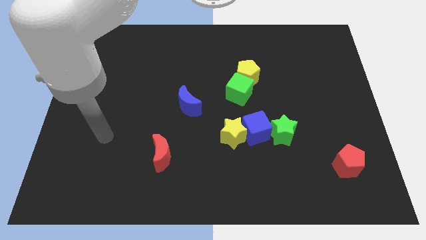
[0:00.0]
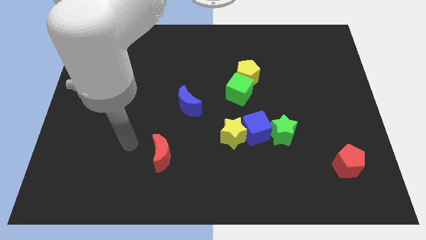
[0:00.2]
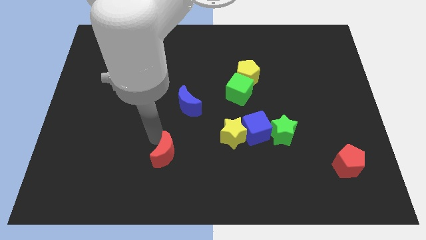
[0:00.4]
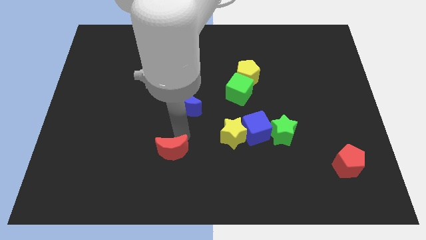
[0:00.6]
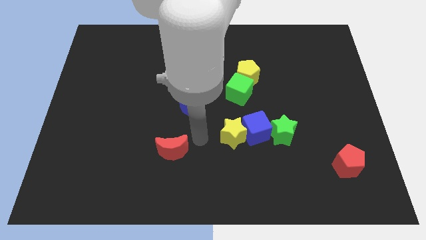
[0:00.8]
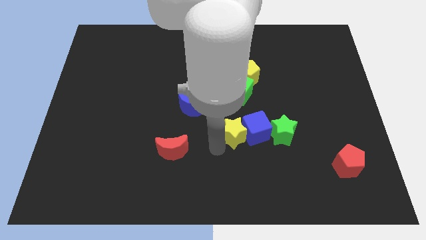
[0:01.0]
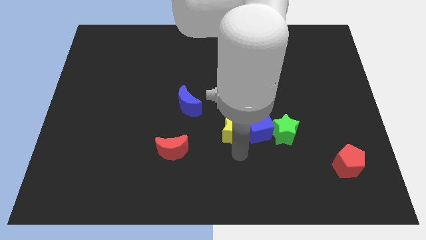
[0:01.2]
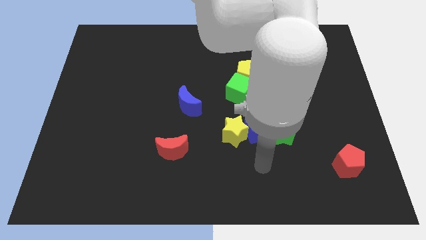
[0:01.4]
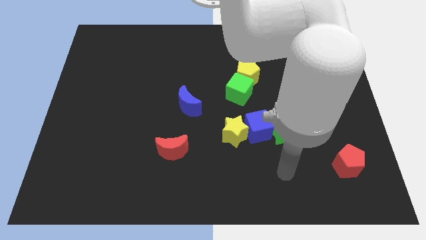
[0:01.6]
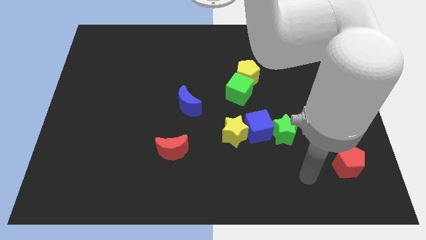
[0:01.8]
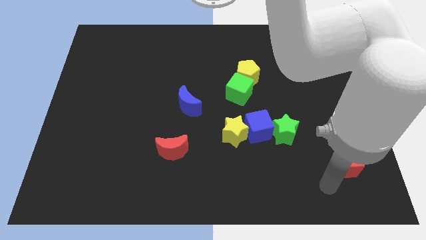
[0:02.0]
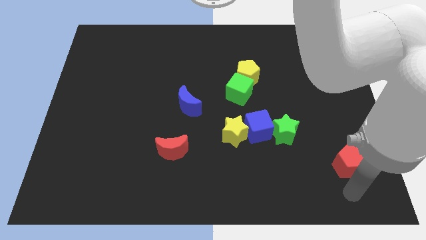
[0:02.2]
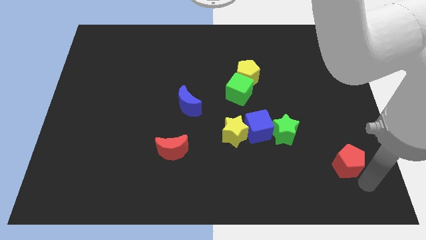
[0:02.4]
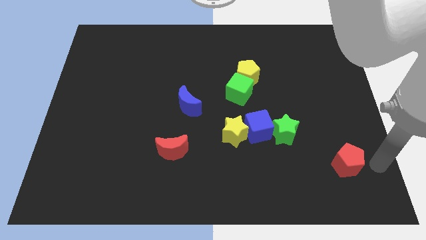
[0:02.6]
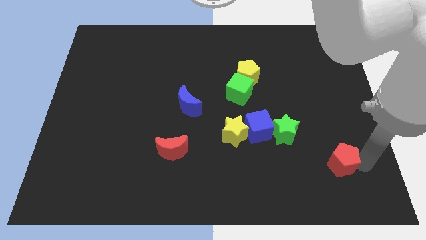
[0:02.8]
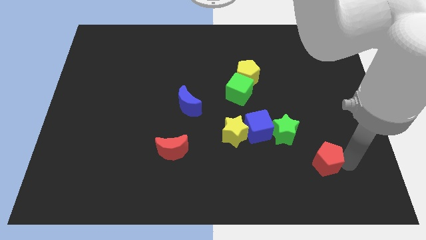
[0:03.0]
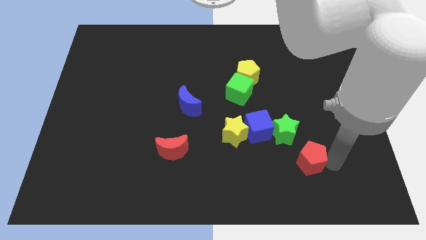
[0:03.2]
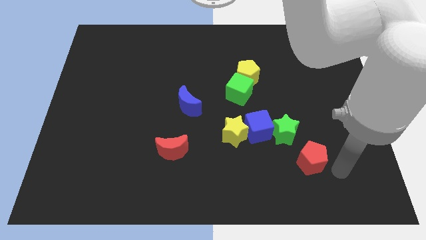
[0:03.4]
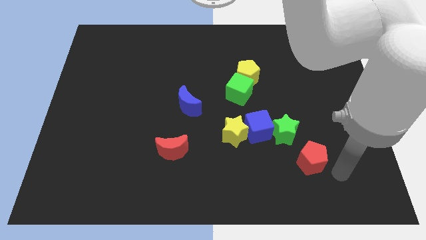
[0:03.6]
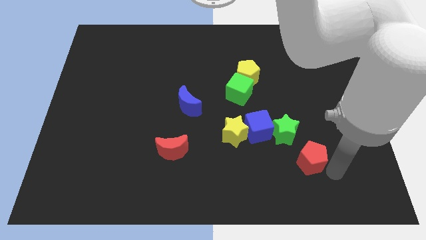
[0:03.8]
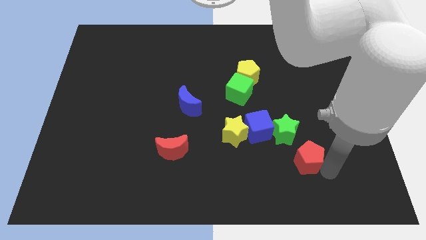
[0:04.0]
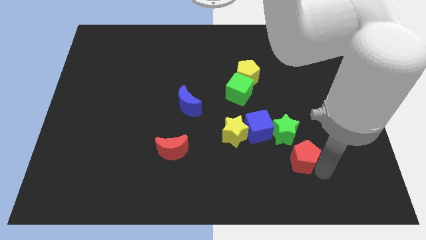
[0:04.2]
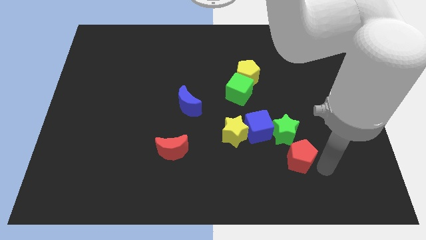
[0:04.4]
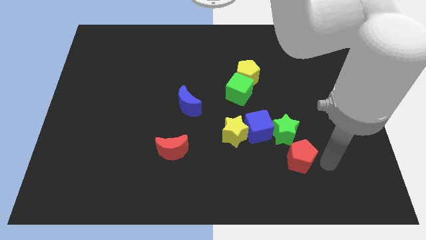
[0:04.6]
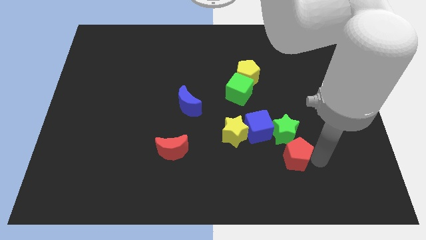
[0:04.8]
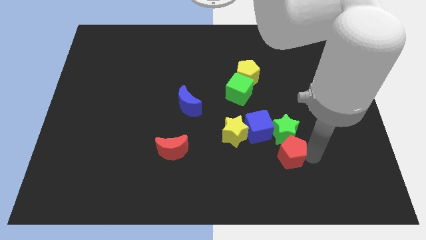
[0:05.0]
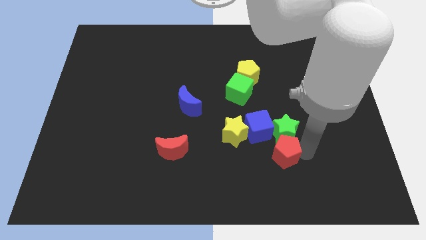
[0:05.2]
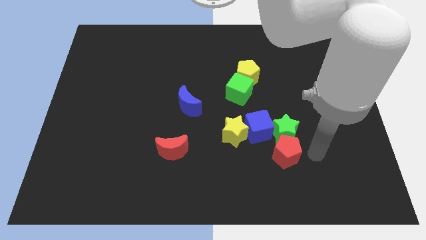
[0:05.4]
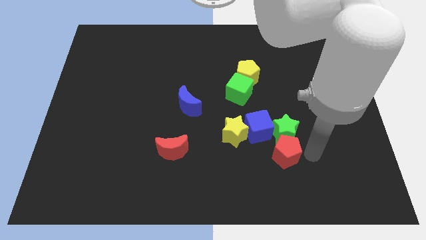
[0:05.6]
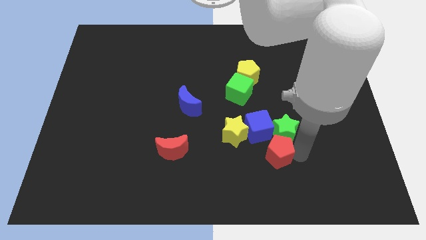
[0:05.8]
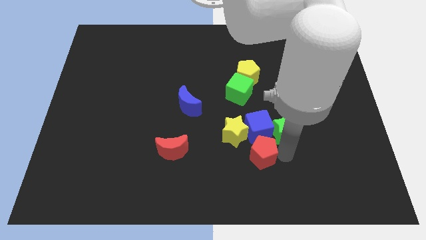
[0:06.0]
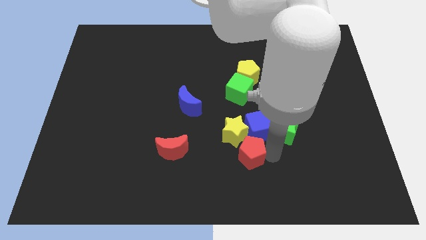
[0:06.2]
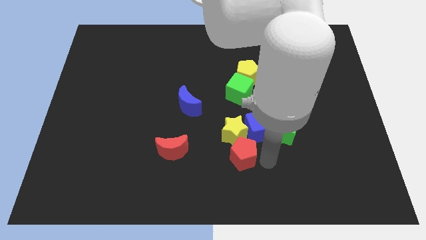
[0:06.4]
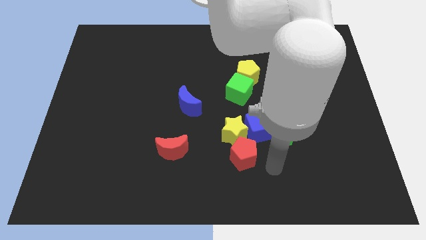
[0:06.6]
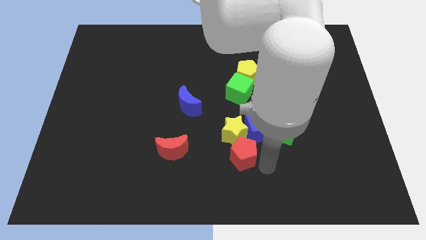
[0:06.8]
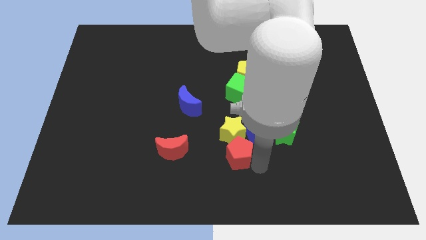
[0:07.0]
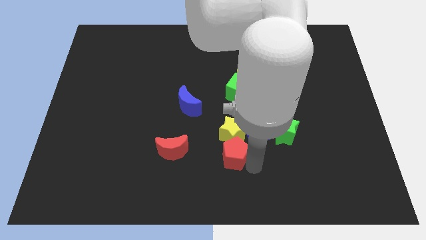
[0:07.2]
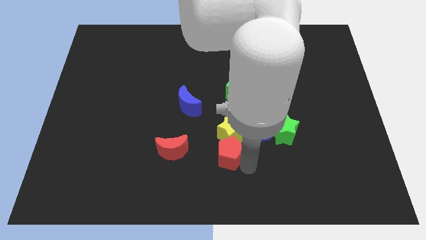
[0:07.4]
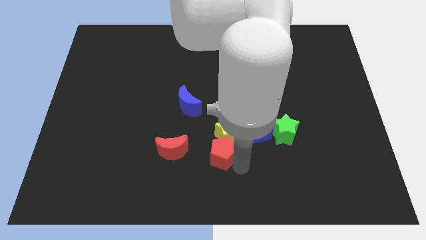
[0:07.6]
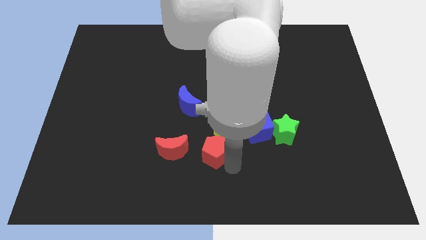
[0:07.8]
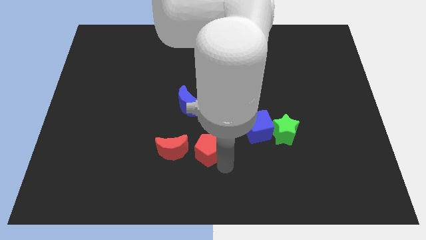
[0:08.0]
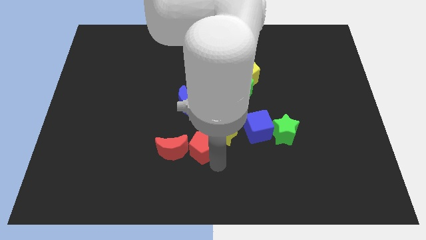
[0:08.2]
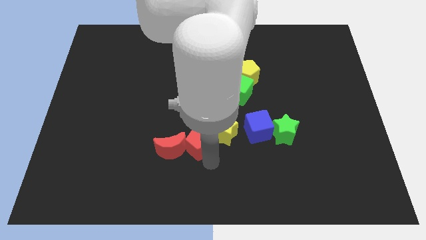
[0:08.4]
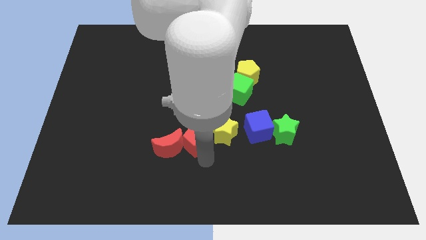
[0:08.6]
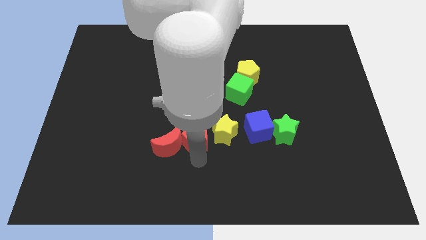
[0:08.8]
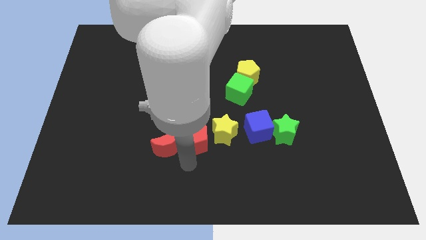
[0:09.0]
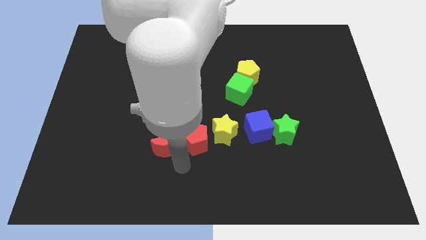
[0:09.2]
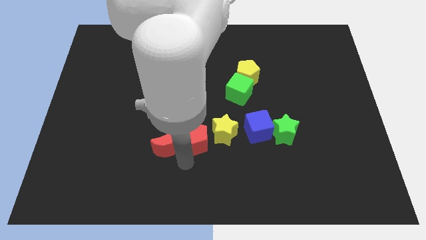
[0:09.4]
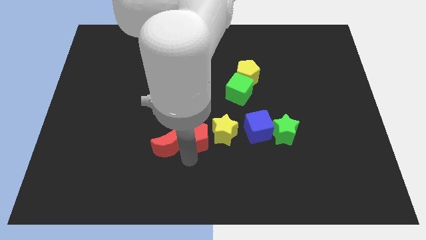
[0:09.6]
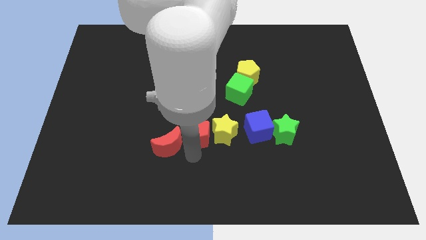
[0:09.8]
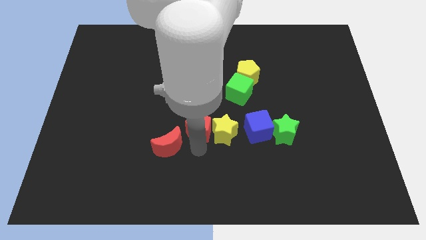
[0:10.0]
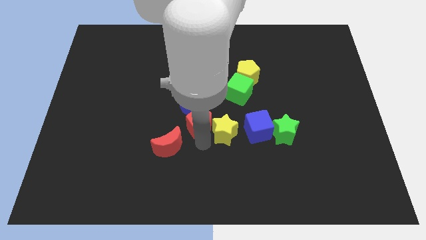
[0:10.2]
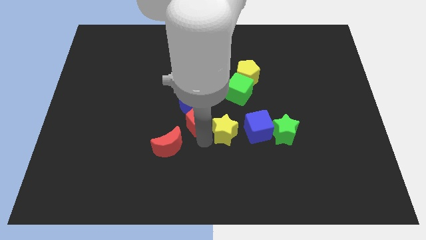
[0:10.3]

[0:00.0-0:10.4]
push the red pentagon to the blue moon

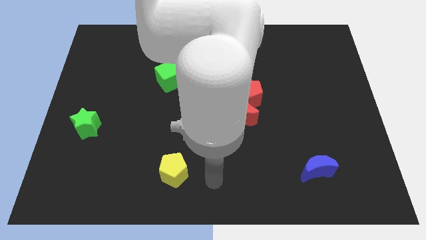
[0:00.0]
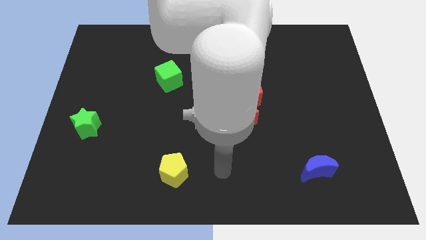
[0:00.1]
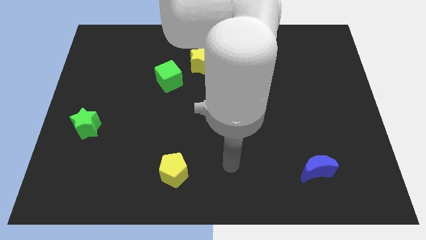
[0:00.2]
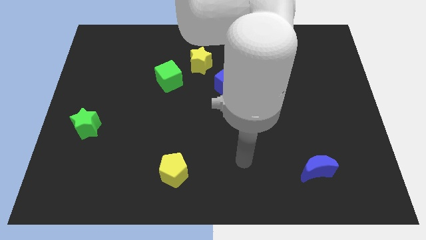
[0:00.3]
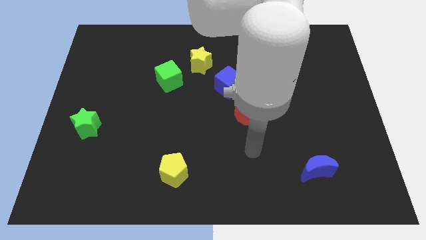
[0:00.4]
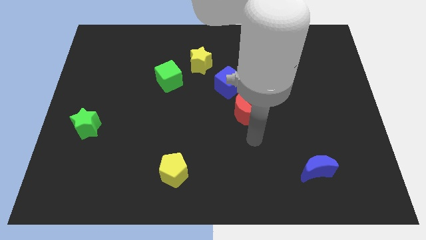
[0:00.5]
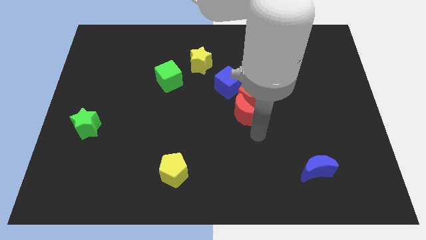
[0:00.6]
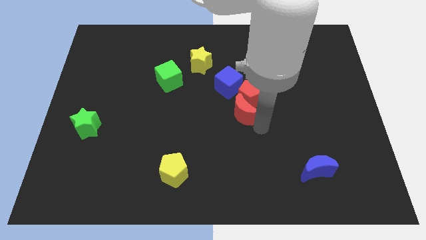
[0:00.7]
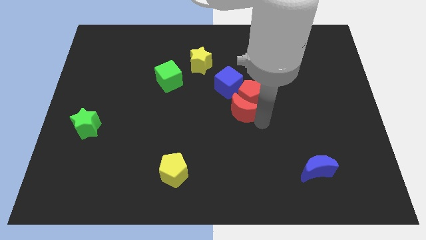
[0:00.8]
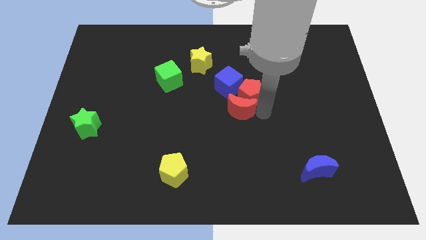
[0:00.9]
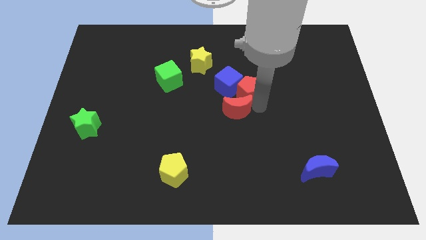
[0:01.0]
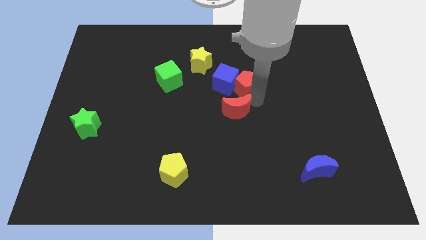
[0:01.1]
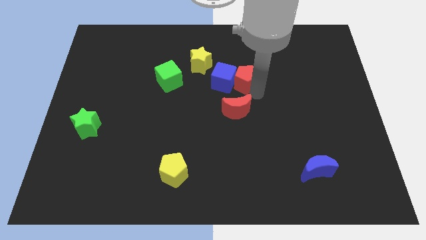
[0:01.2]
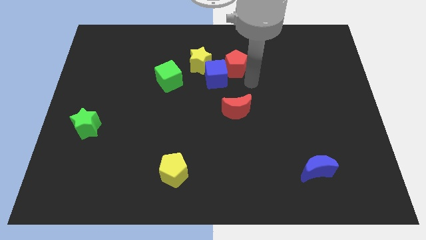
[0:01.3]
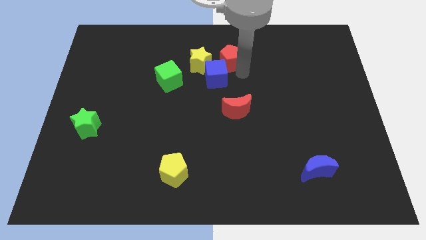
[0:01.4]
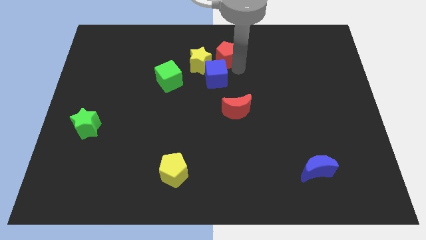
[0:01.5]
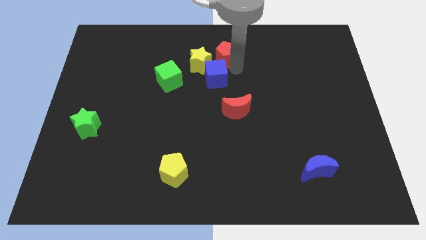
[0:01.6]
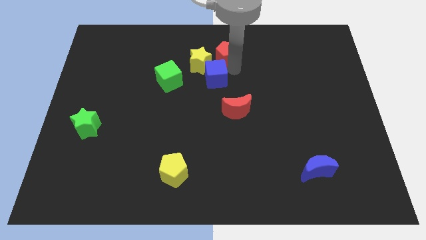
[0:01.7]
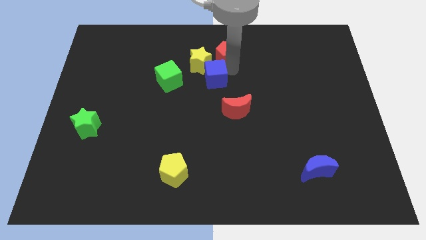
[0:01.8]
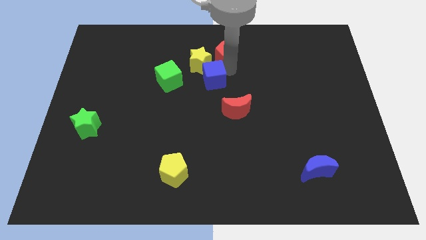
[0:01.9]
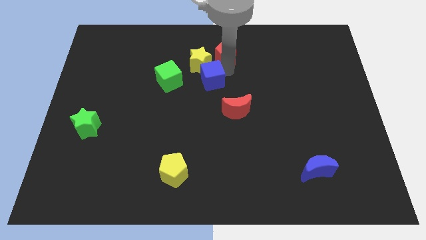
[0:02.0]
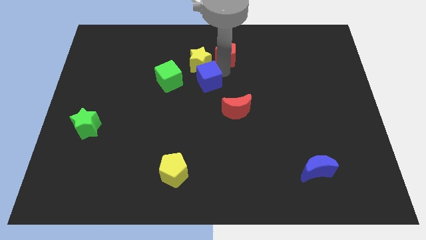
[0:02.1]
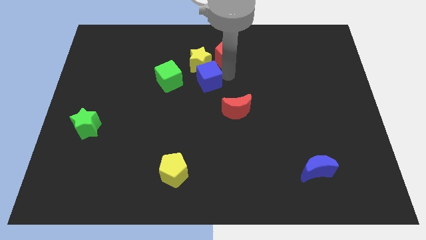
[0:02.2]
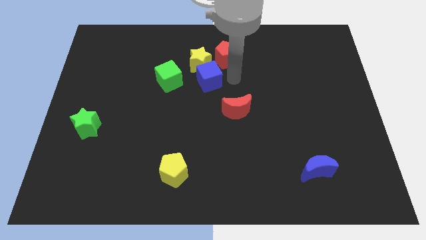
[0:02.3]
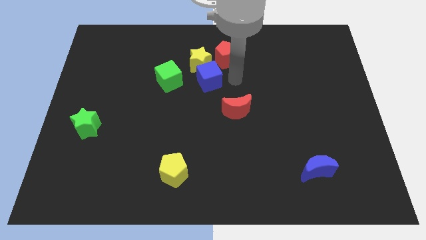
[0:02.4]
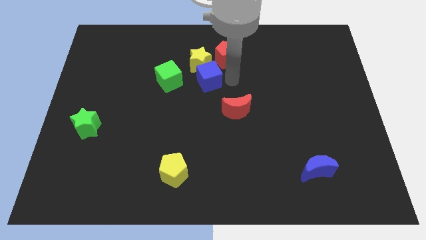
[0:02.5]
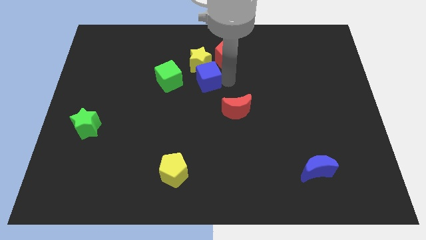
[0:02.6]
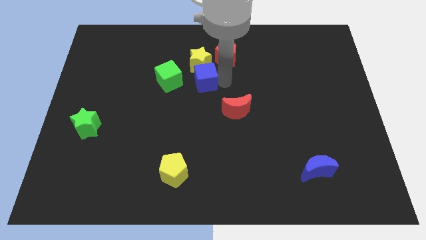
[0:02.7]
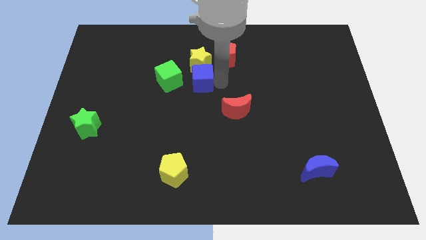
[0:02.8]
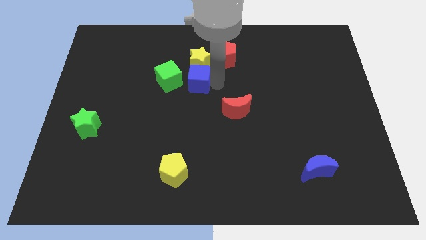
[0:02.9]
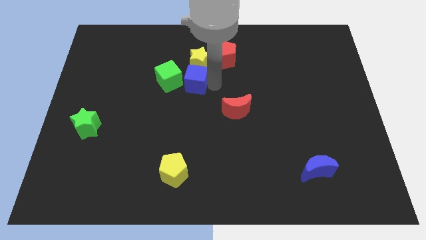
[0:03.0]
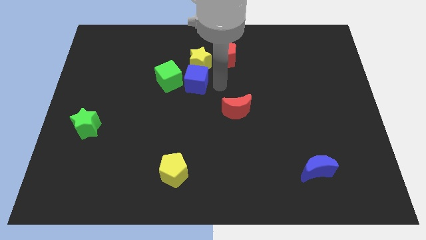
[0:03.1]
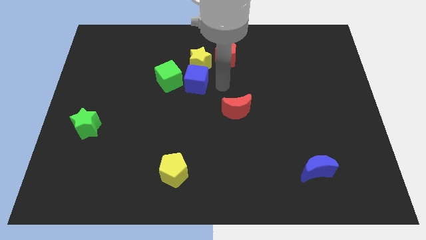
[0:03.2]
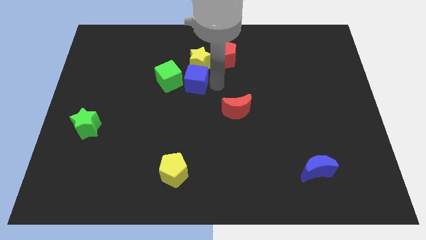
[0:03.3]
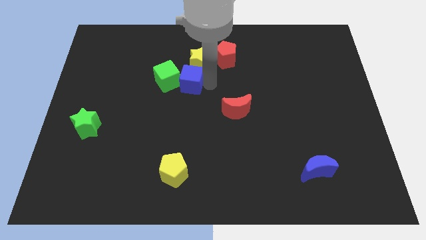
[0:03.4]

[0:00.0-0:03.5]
put the blue cube next to the green cube
